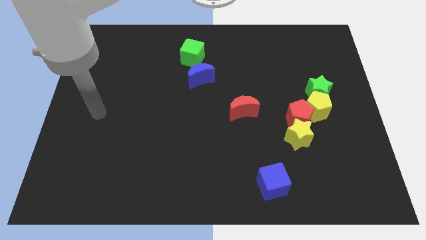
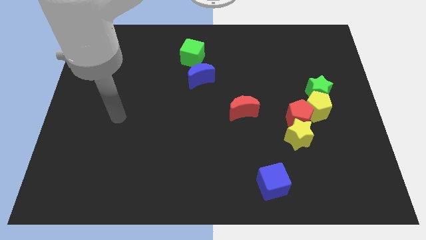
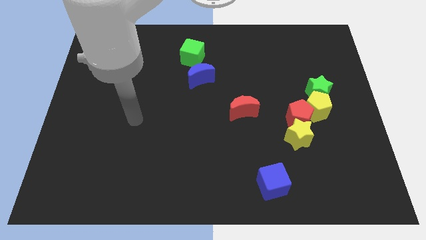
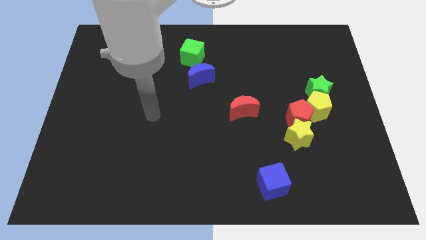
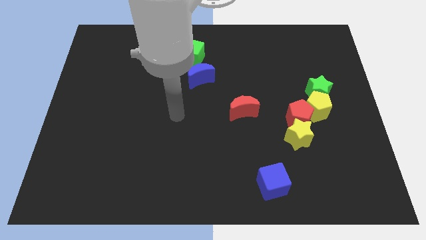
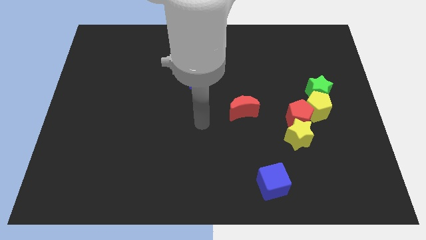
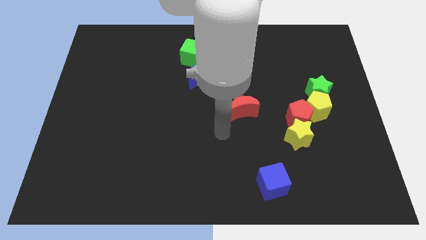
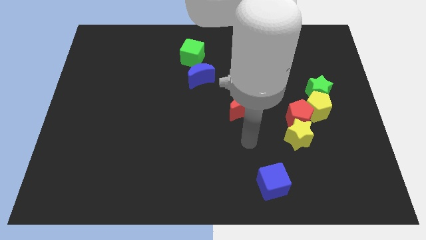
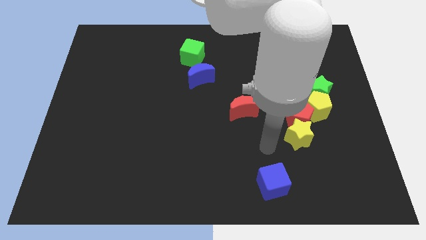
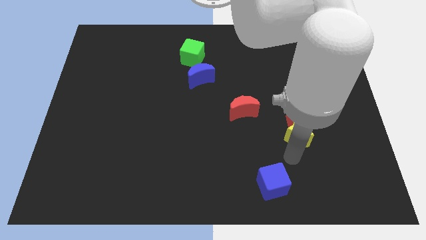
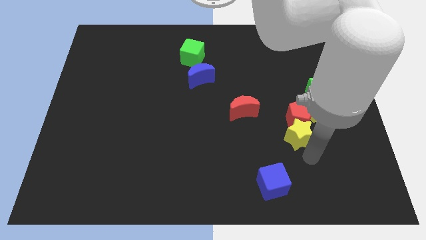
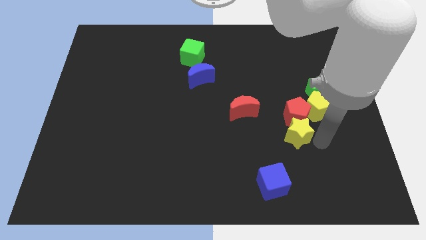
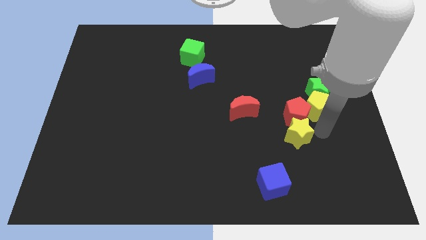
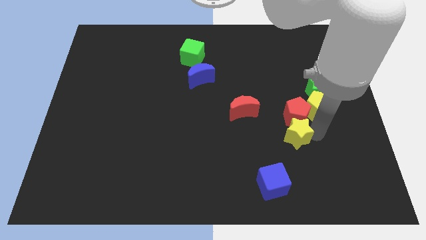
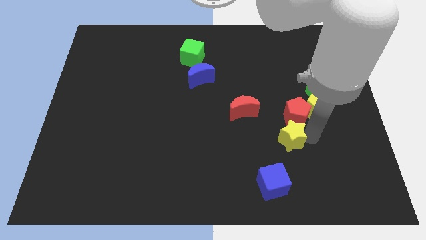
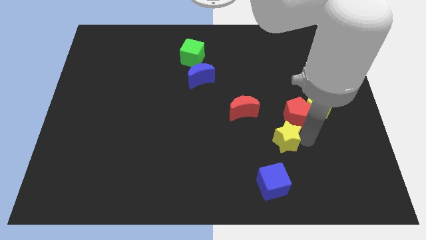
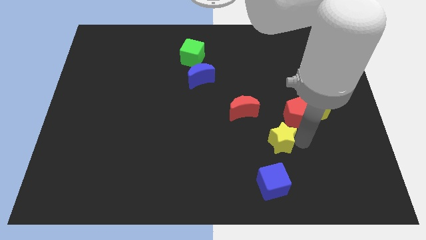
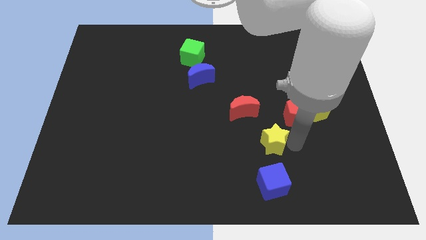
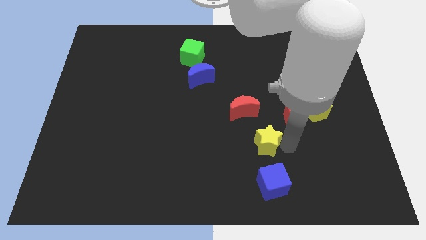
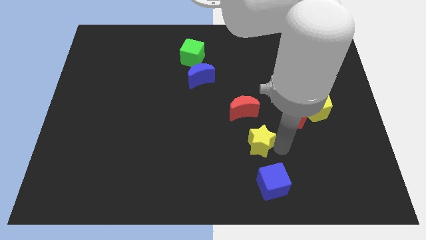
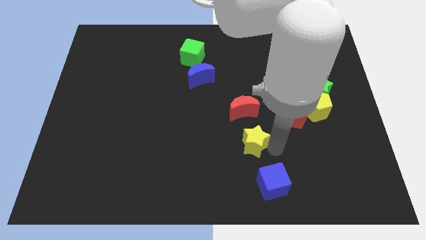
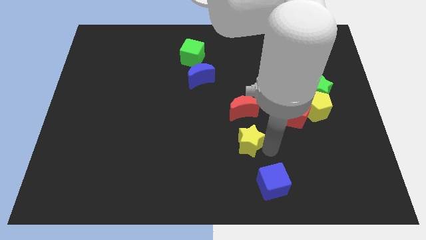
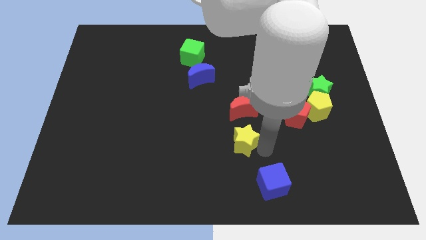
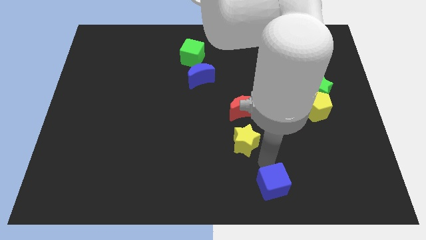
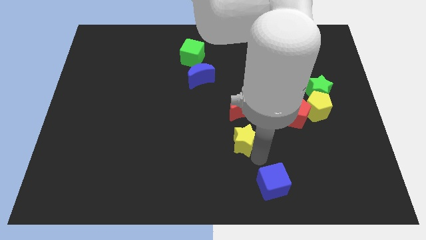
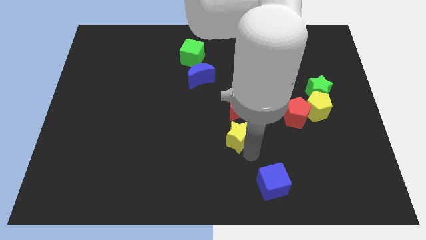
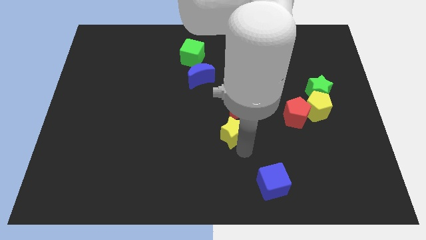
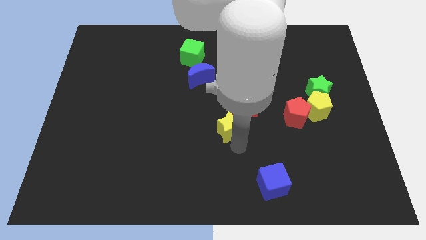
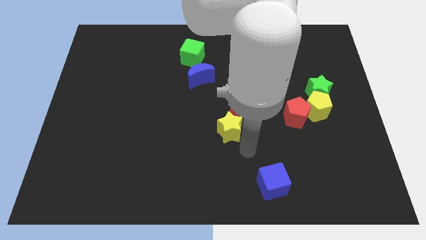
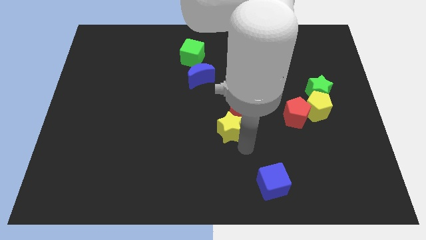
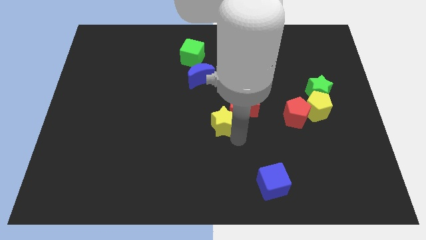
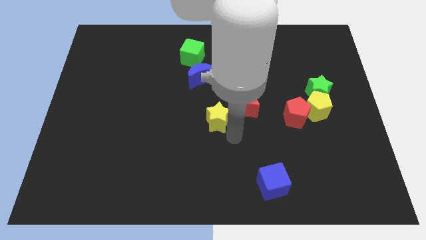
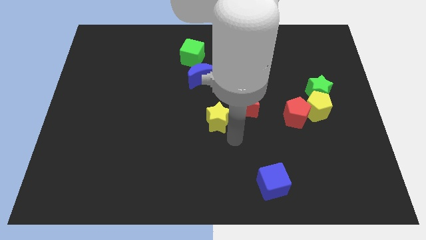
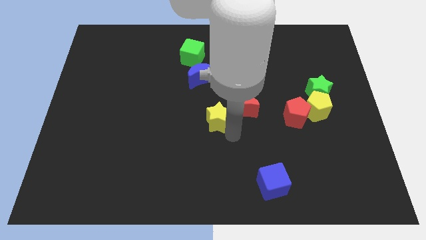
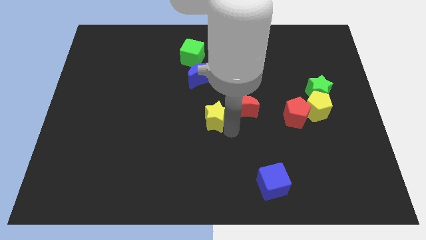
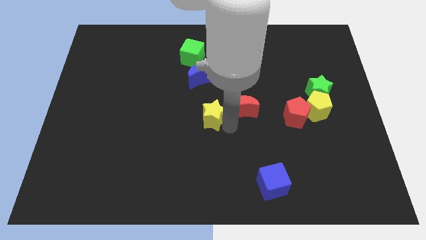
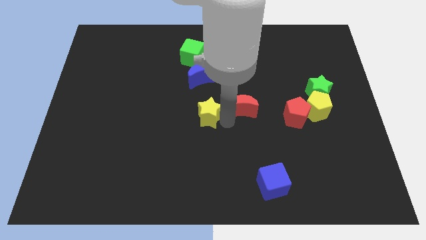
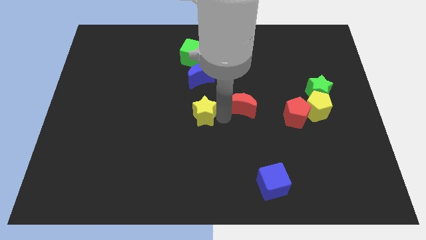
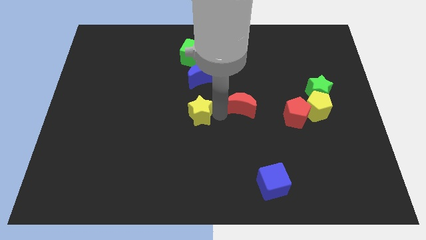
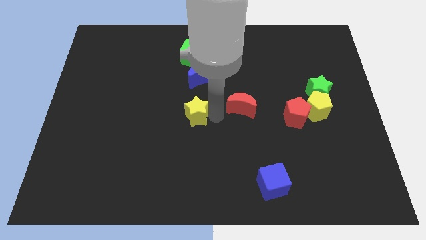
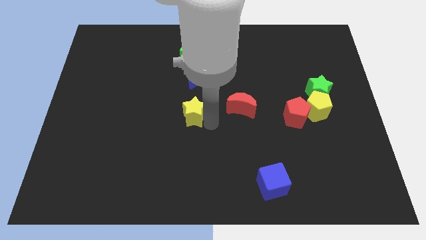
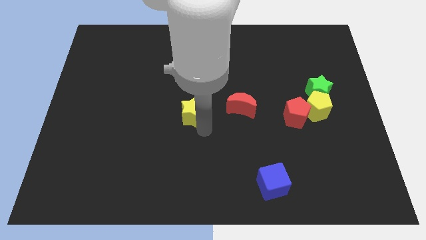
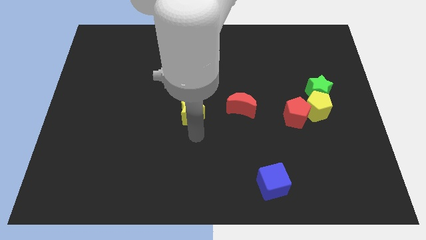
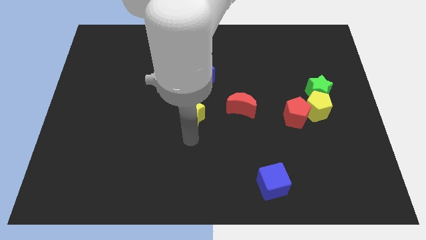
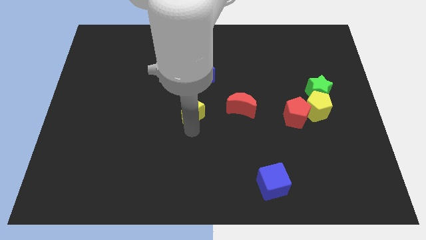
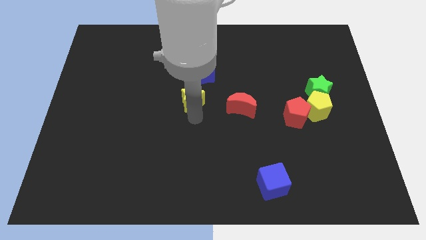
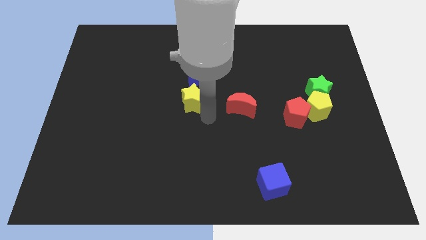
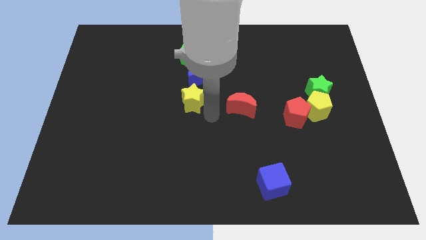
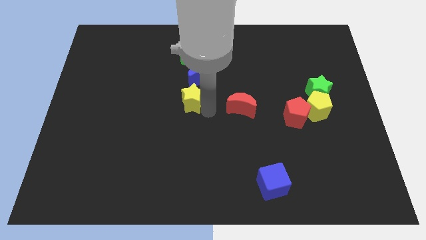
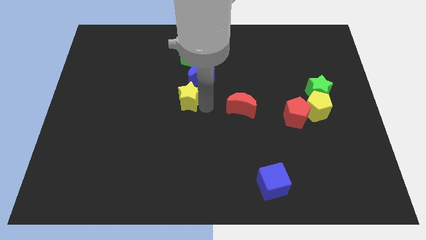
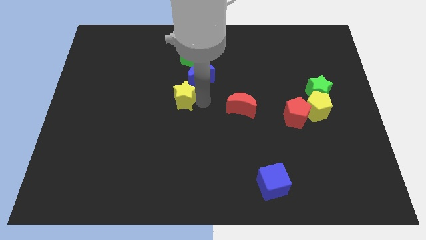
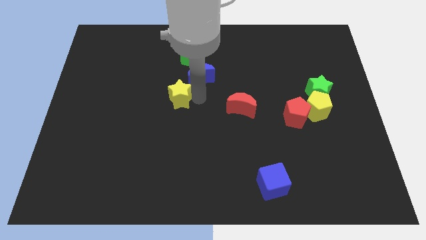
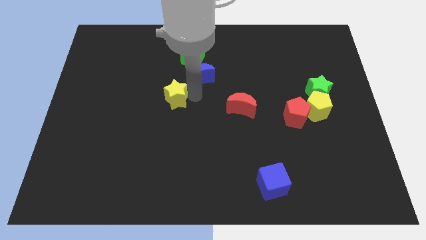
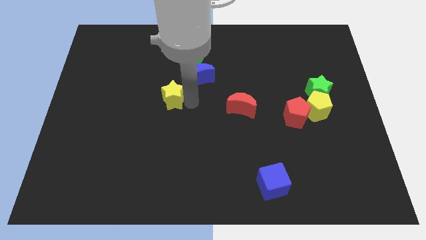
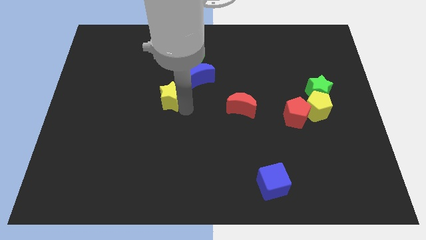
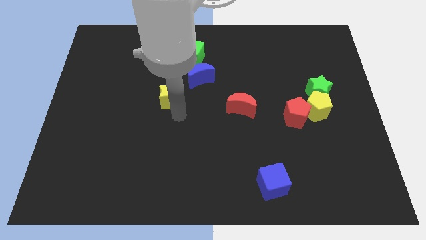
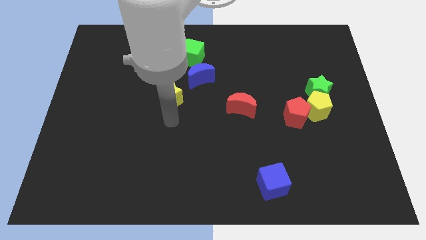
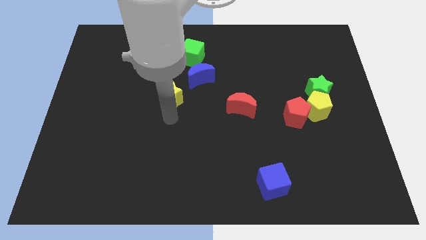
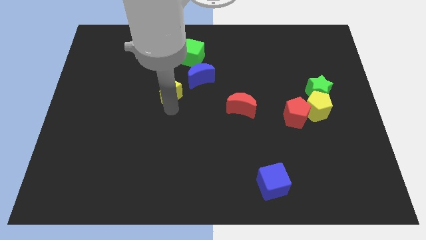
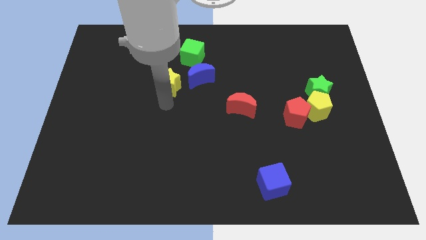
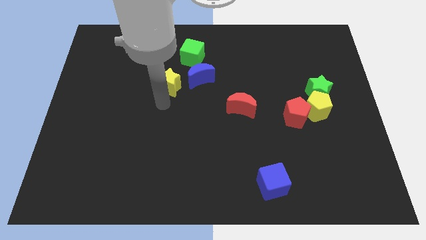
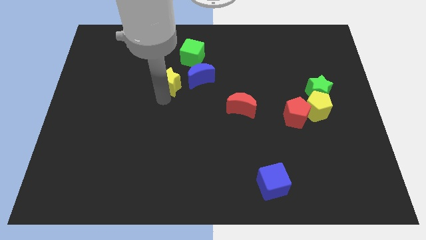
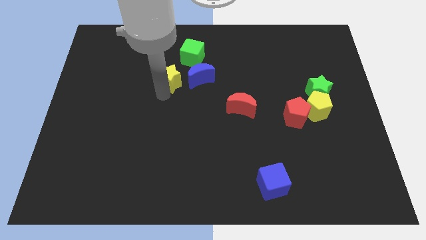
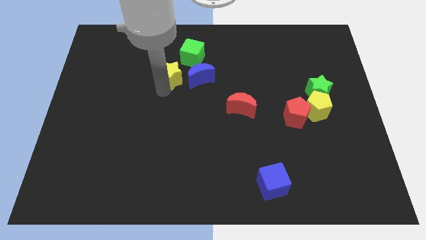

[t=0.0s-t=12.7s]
slide the yellow star diagonally up and to the left of the blue moon

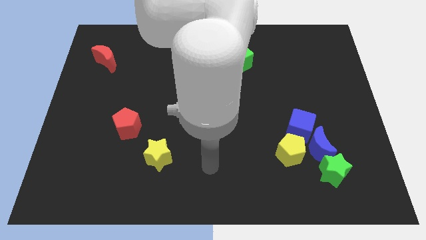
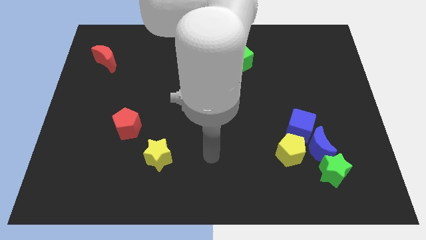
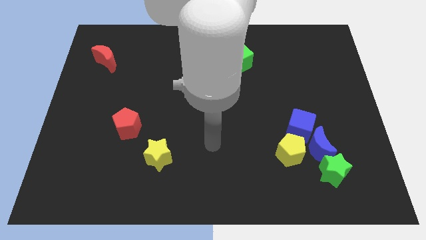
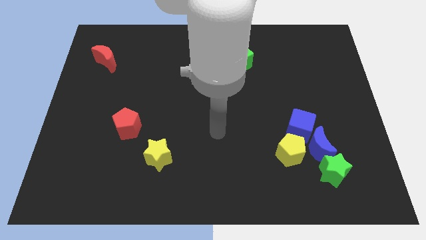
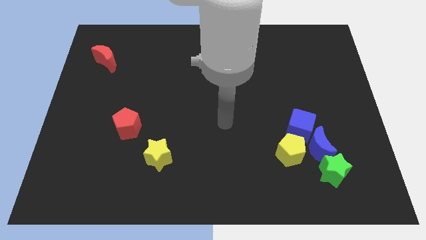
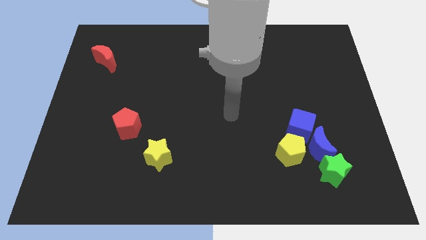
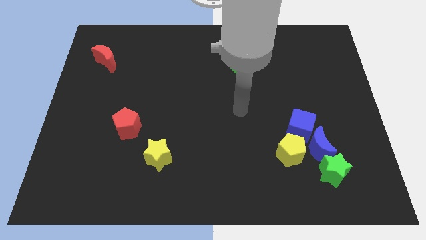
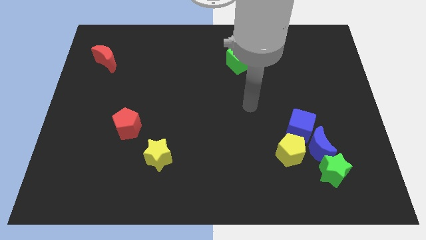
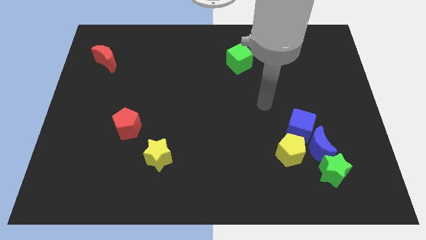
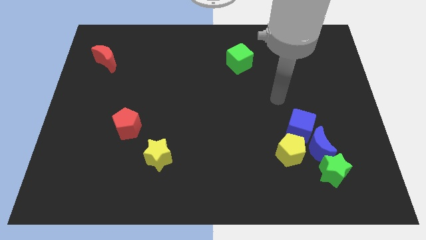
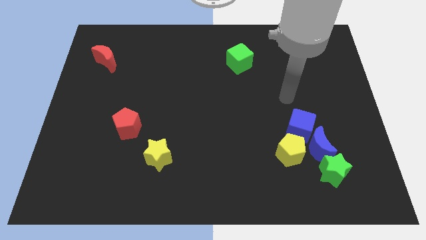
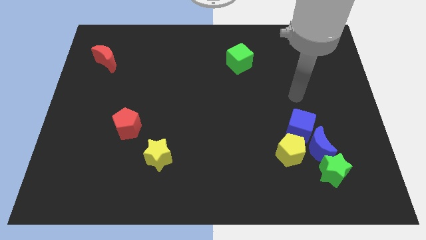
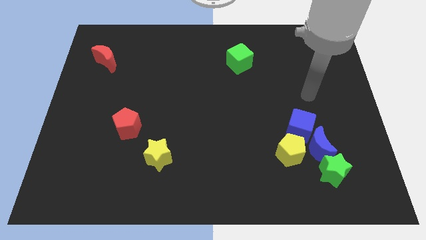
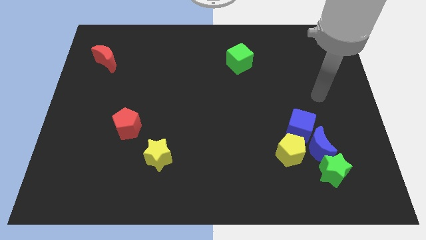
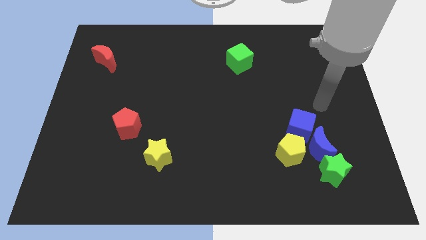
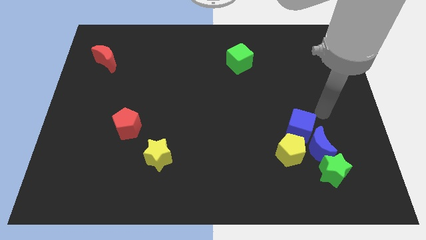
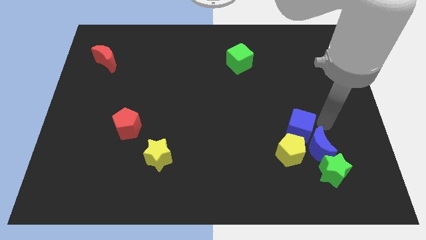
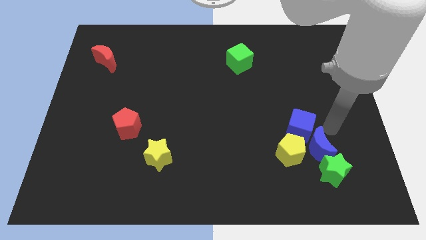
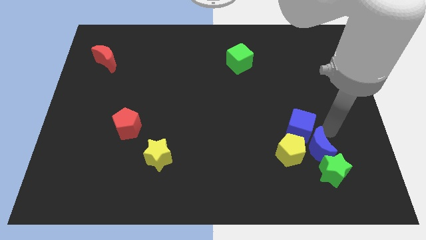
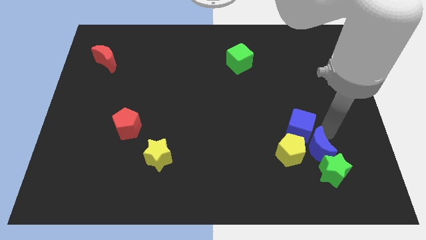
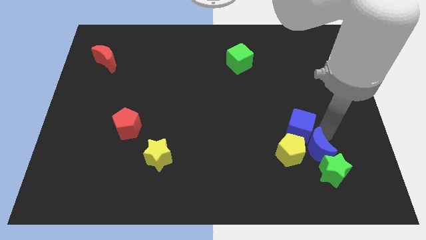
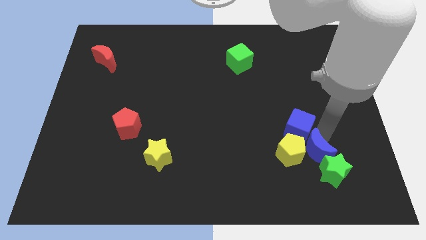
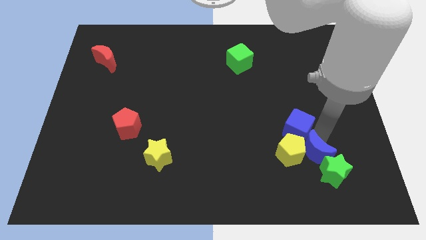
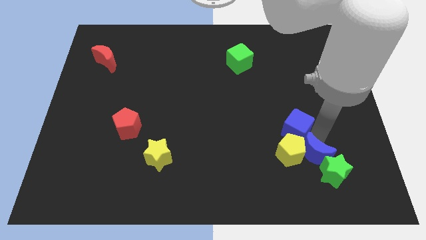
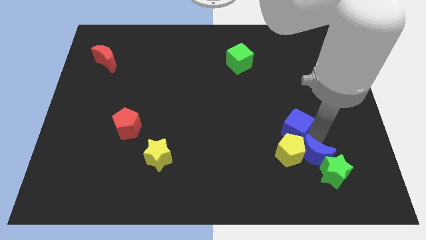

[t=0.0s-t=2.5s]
move the blue moon just left of the green star
